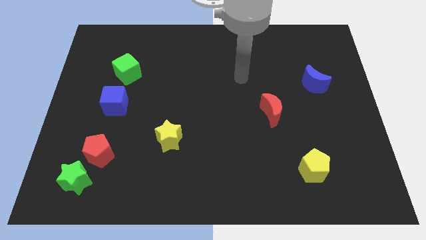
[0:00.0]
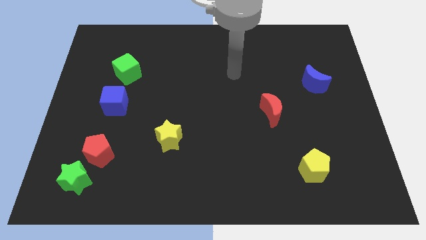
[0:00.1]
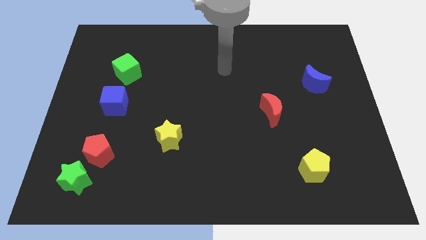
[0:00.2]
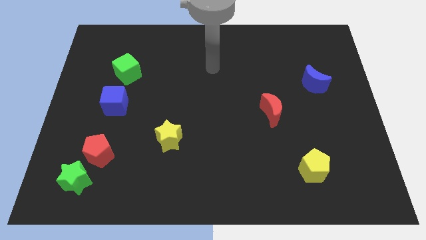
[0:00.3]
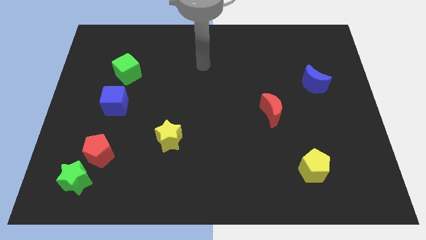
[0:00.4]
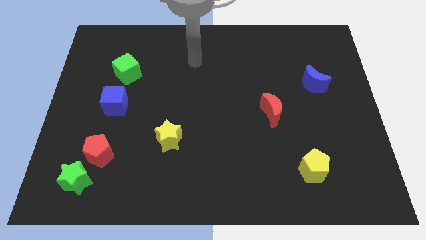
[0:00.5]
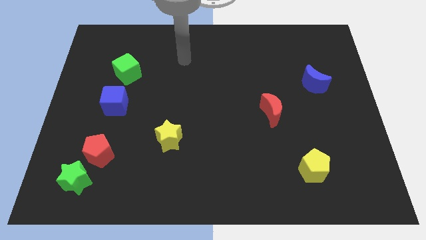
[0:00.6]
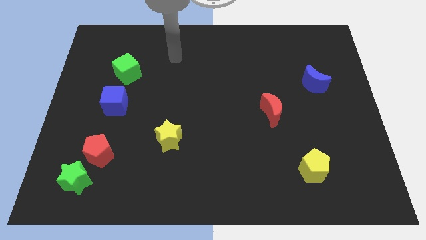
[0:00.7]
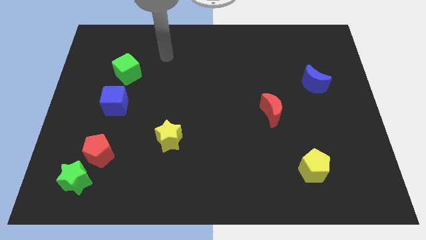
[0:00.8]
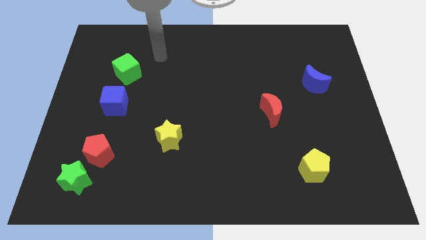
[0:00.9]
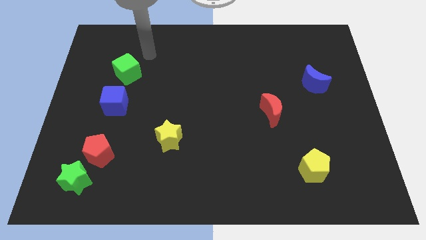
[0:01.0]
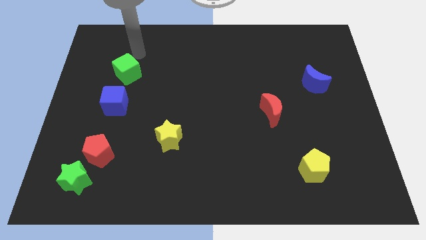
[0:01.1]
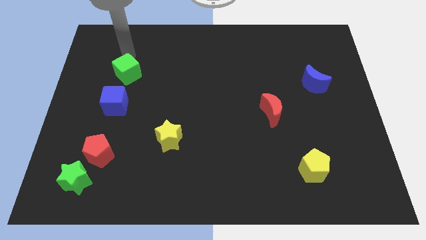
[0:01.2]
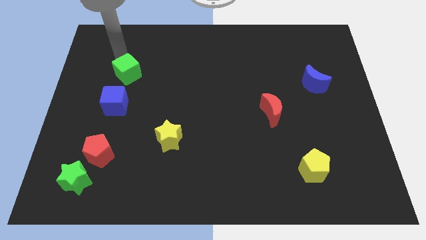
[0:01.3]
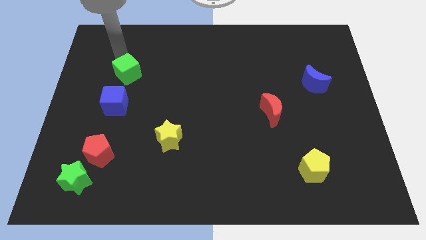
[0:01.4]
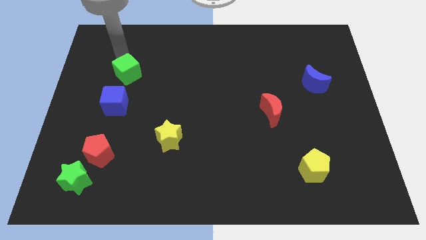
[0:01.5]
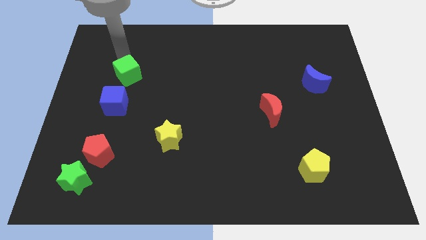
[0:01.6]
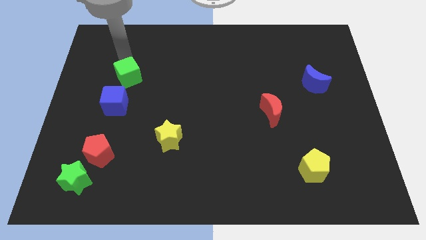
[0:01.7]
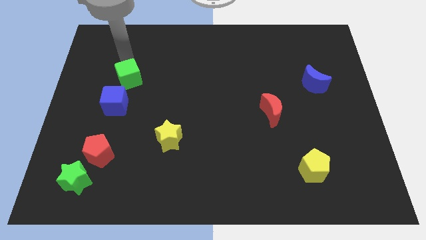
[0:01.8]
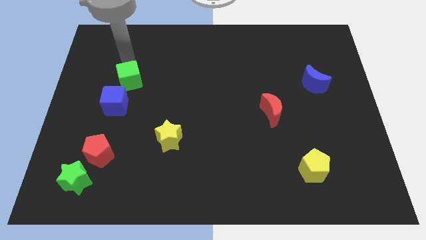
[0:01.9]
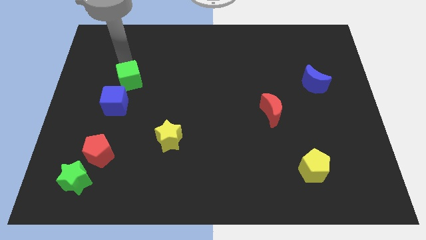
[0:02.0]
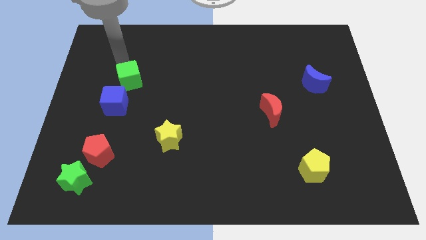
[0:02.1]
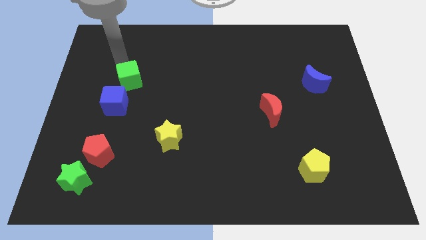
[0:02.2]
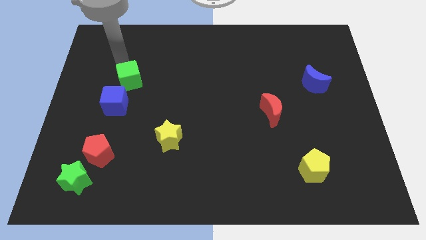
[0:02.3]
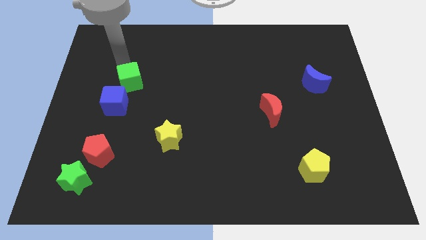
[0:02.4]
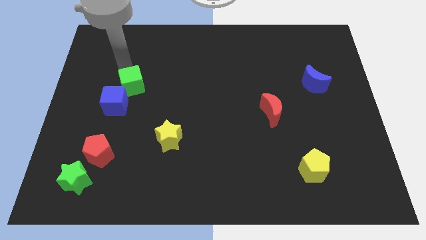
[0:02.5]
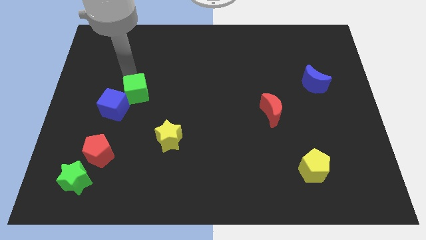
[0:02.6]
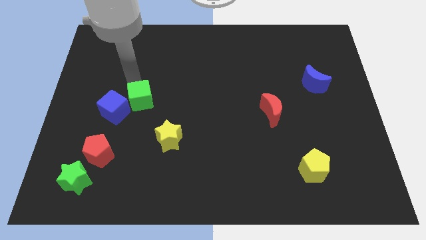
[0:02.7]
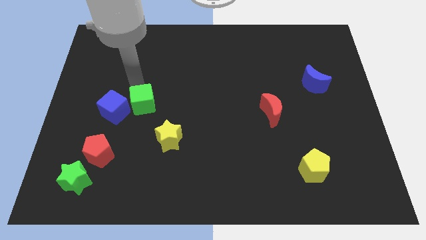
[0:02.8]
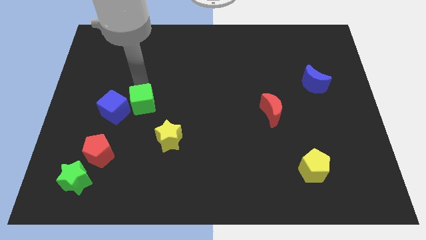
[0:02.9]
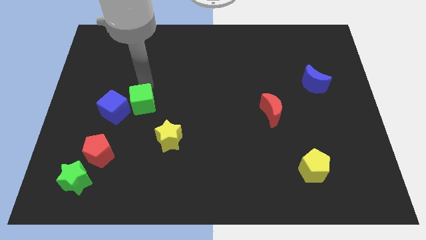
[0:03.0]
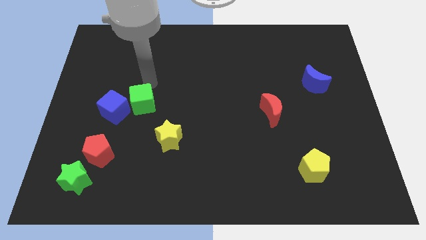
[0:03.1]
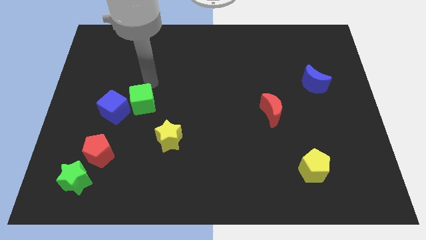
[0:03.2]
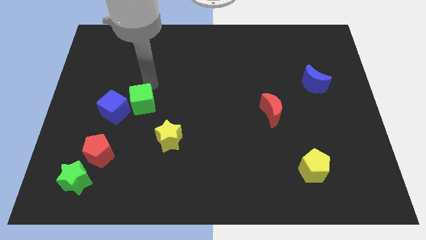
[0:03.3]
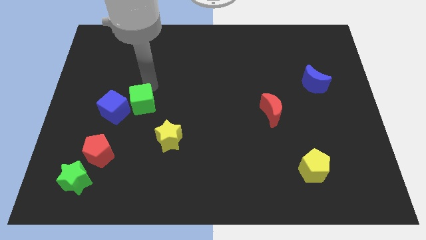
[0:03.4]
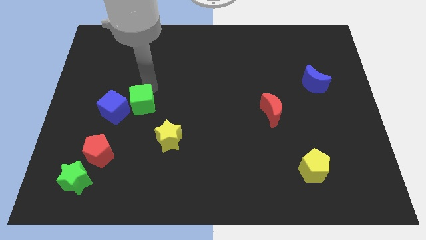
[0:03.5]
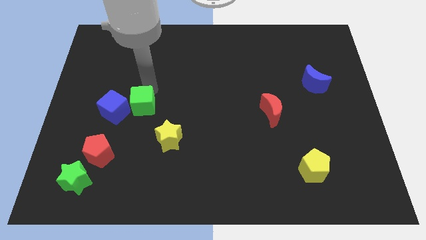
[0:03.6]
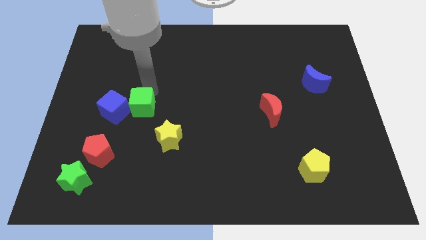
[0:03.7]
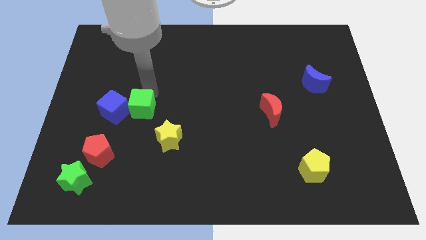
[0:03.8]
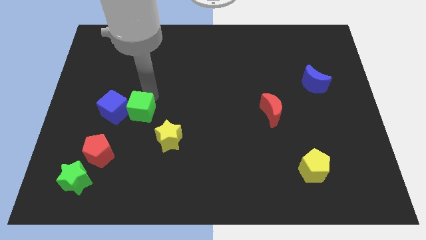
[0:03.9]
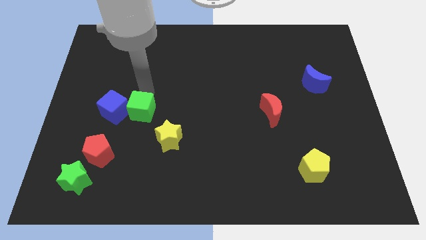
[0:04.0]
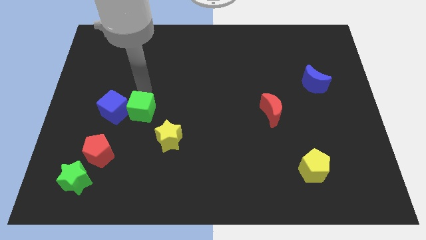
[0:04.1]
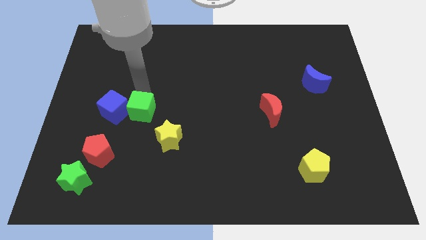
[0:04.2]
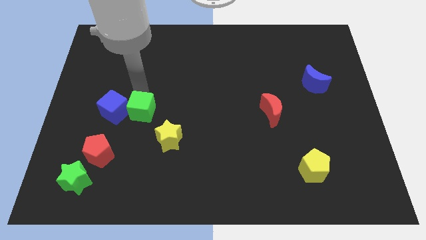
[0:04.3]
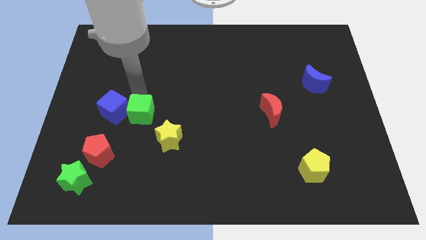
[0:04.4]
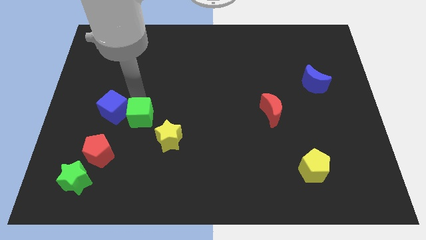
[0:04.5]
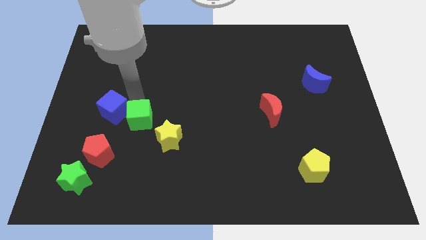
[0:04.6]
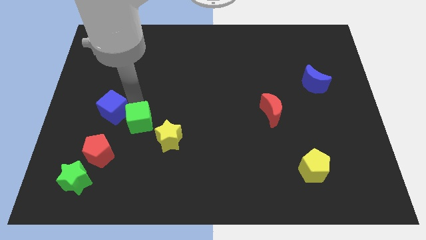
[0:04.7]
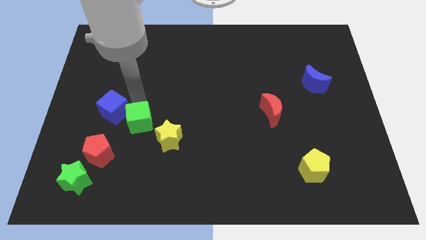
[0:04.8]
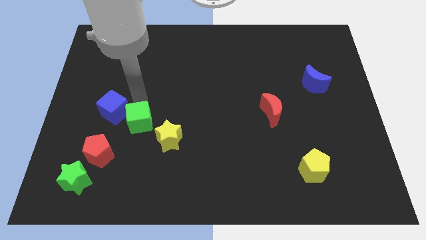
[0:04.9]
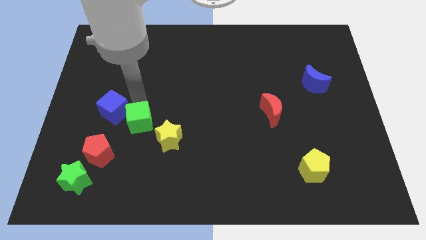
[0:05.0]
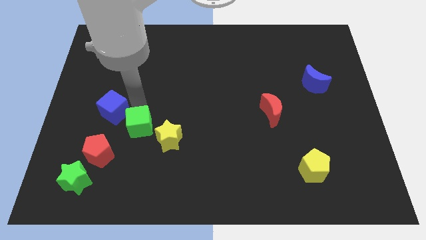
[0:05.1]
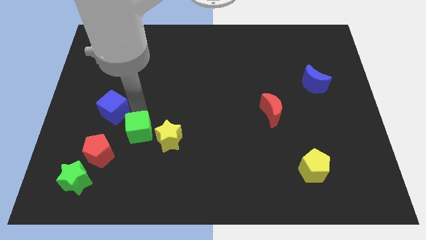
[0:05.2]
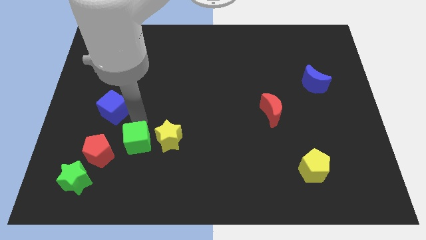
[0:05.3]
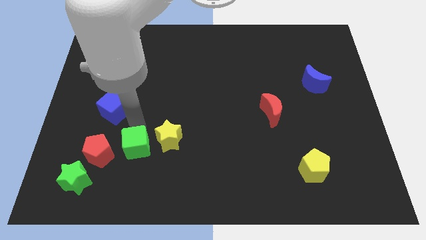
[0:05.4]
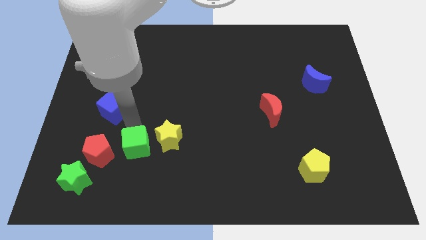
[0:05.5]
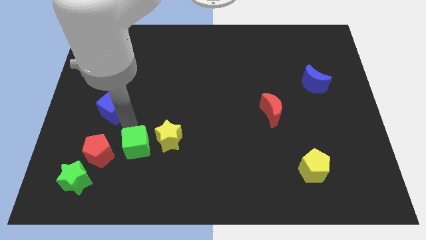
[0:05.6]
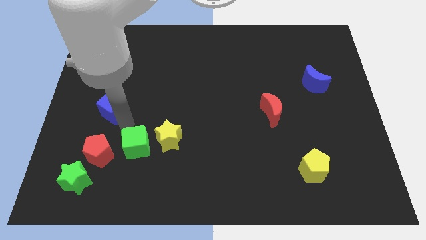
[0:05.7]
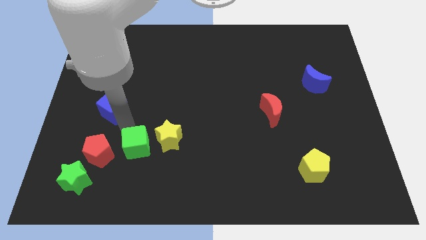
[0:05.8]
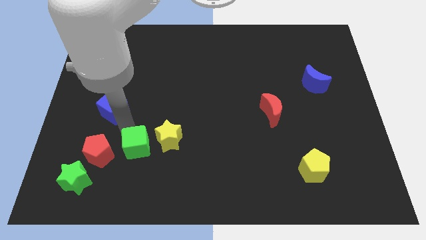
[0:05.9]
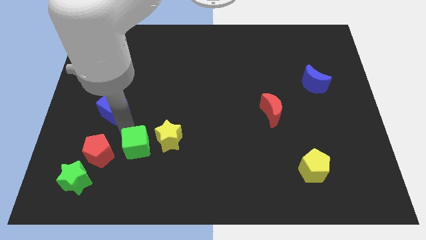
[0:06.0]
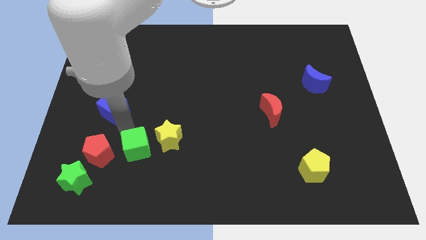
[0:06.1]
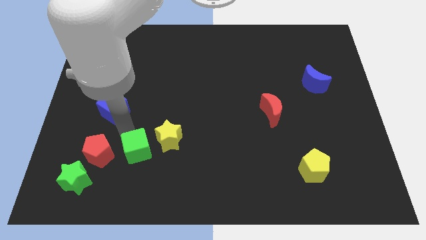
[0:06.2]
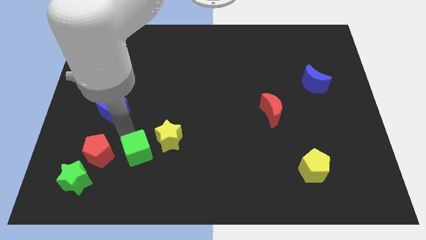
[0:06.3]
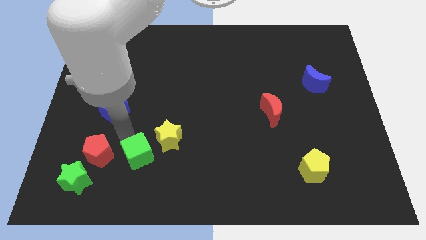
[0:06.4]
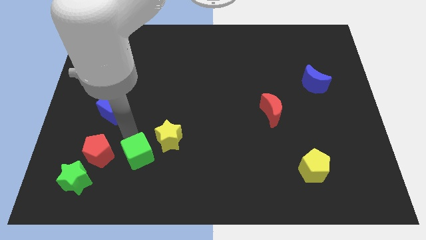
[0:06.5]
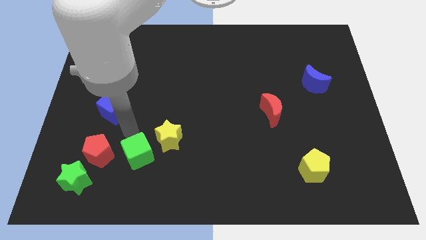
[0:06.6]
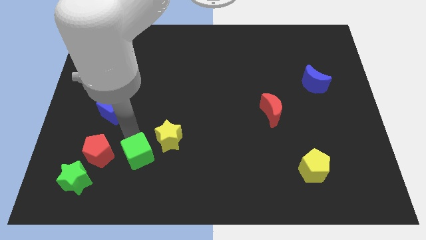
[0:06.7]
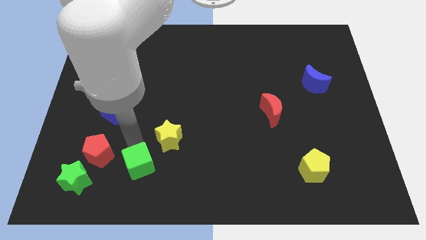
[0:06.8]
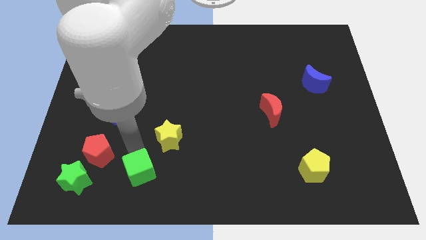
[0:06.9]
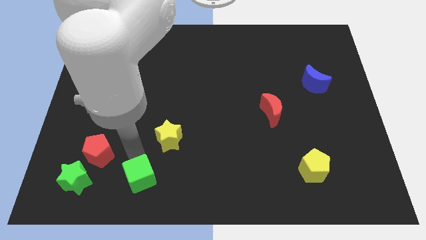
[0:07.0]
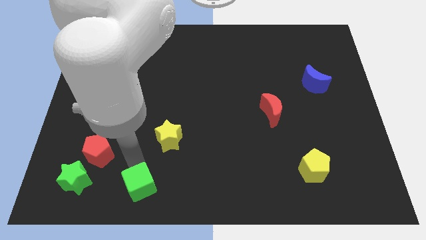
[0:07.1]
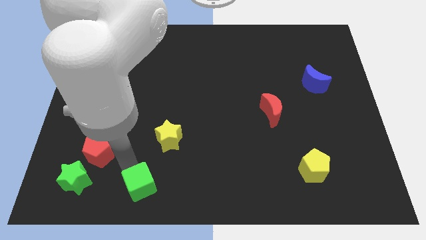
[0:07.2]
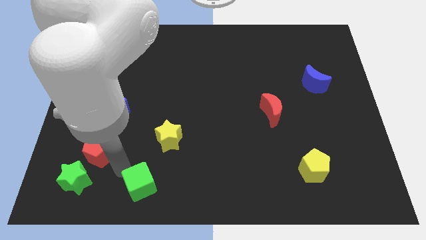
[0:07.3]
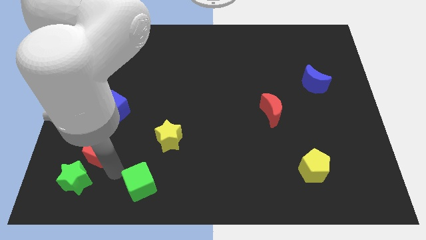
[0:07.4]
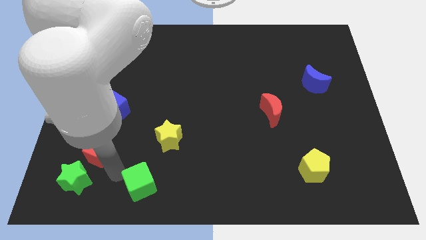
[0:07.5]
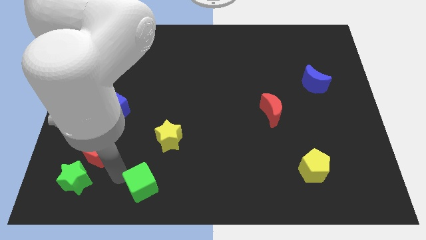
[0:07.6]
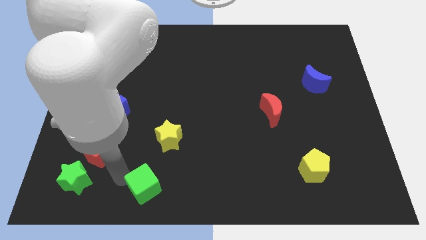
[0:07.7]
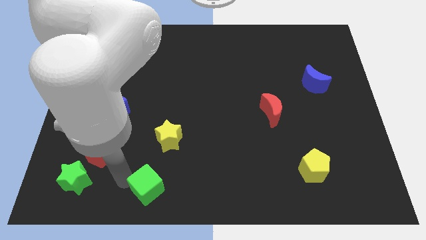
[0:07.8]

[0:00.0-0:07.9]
put the green cube to the bottom
